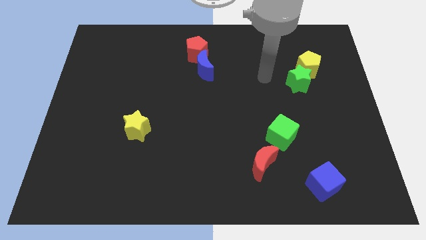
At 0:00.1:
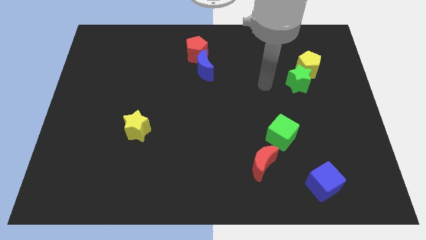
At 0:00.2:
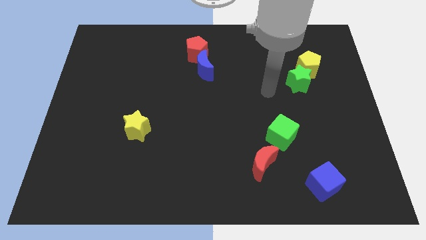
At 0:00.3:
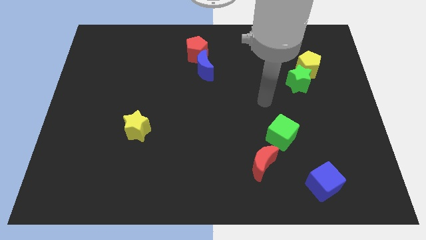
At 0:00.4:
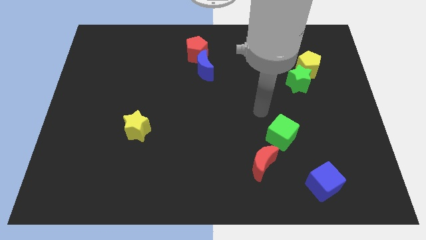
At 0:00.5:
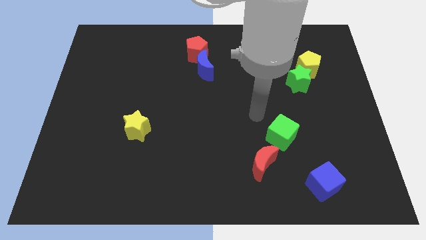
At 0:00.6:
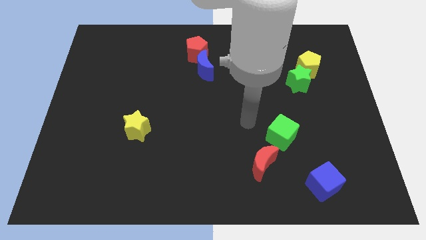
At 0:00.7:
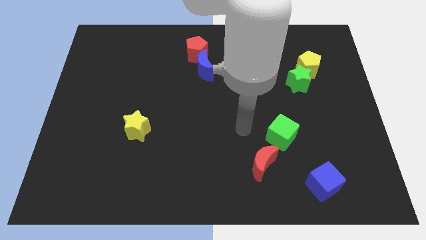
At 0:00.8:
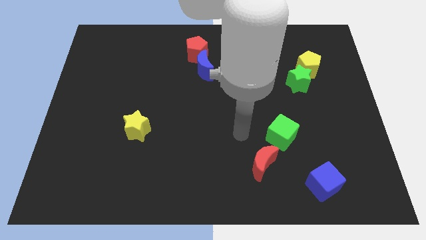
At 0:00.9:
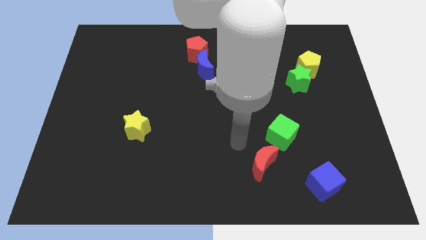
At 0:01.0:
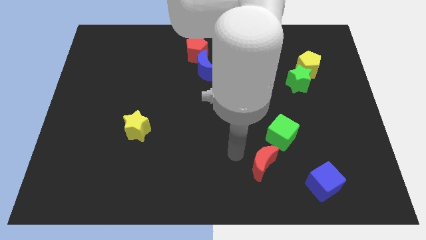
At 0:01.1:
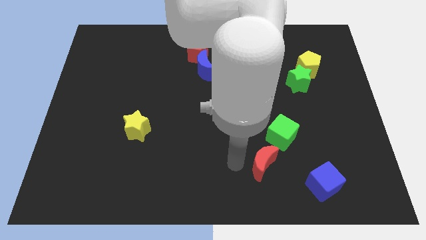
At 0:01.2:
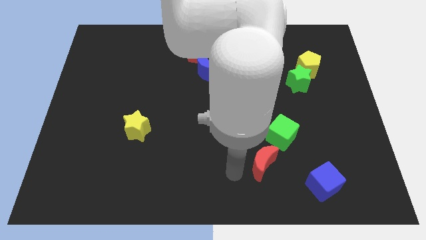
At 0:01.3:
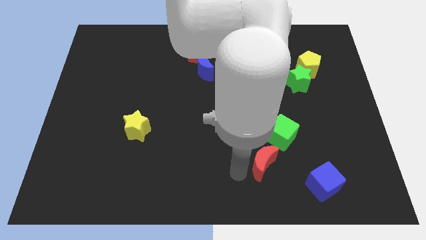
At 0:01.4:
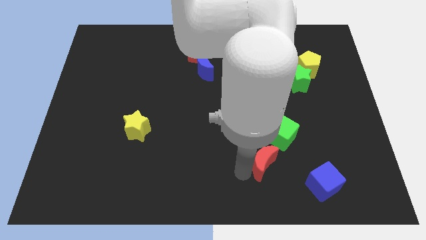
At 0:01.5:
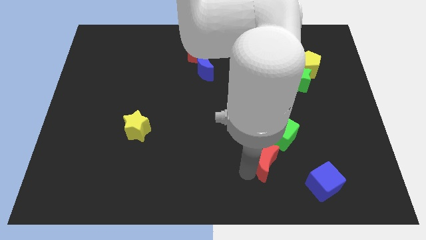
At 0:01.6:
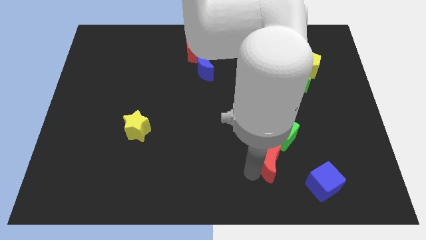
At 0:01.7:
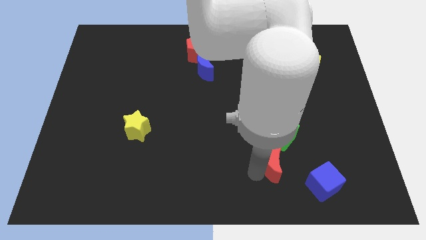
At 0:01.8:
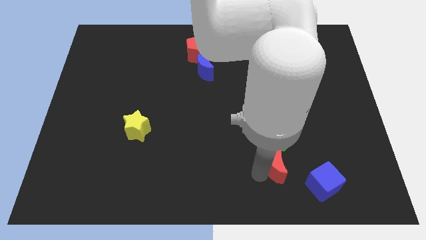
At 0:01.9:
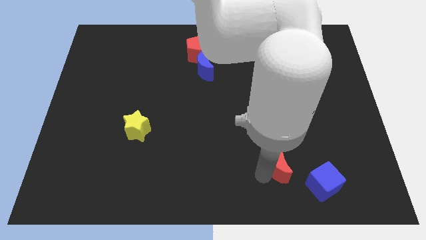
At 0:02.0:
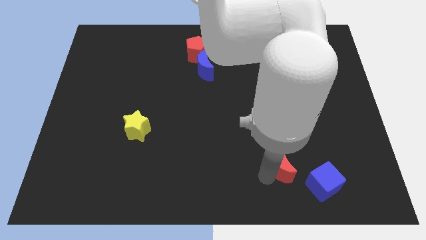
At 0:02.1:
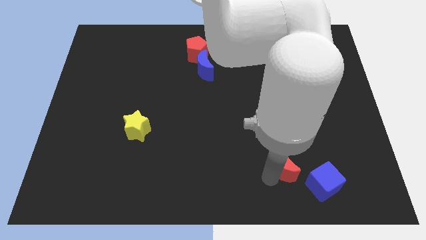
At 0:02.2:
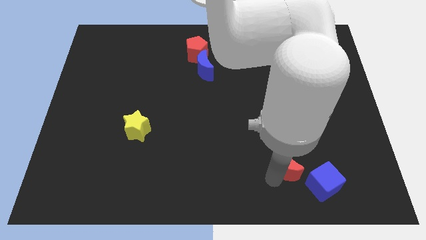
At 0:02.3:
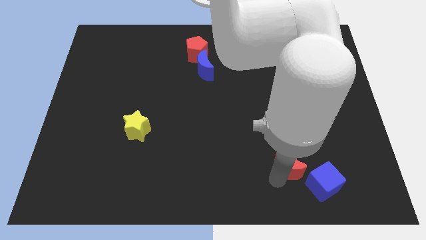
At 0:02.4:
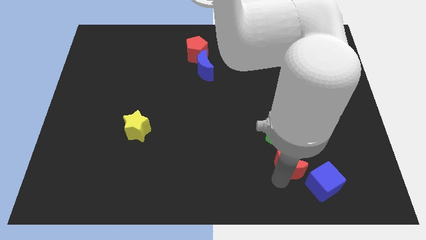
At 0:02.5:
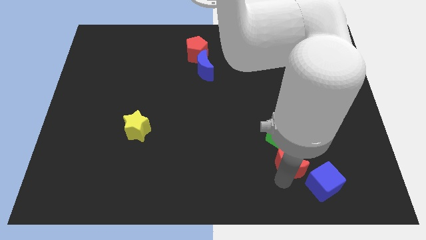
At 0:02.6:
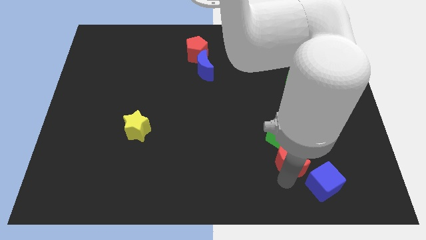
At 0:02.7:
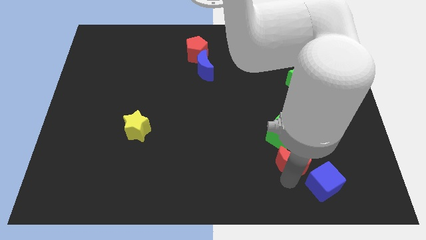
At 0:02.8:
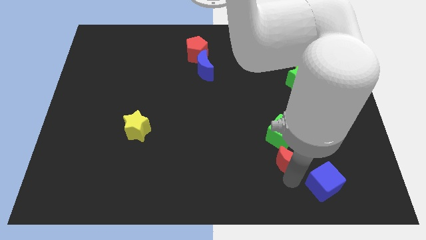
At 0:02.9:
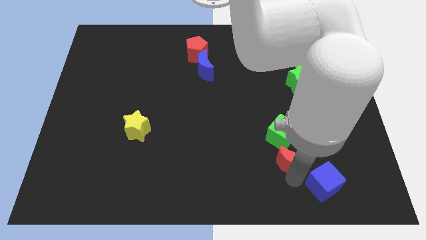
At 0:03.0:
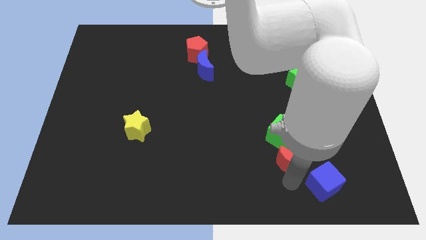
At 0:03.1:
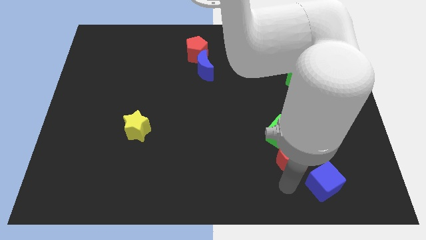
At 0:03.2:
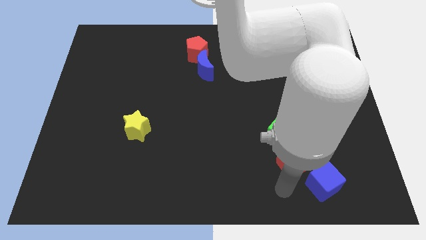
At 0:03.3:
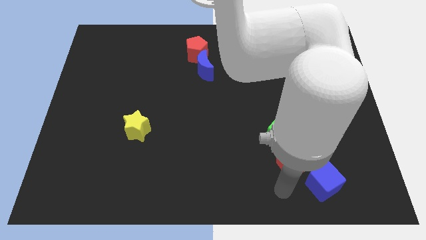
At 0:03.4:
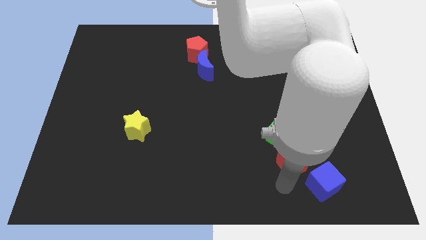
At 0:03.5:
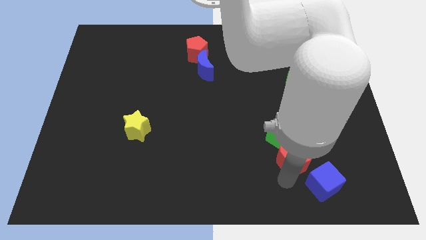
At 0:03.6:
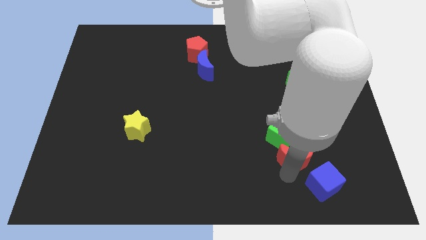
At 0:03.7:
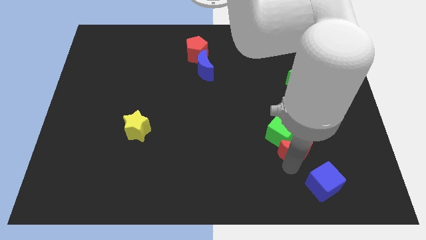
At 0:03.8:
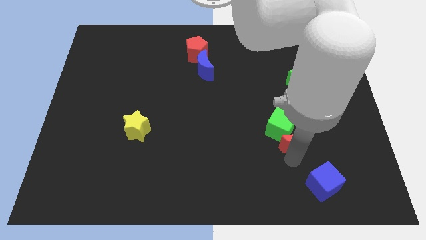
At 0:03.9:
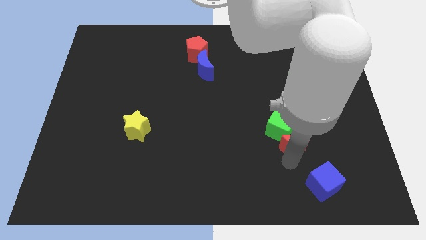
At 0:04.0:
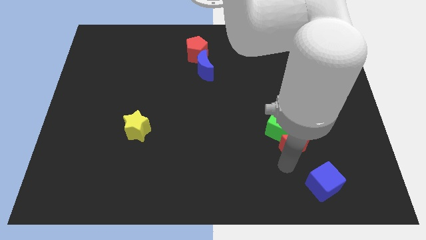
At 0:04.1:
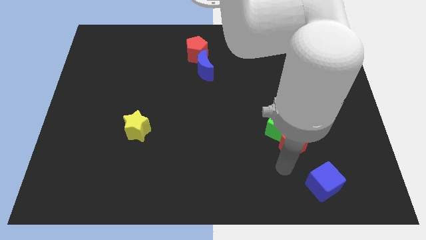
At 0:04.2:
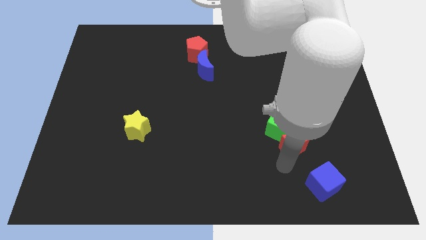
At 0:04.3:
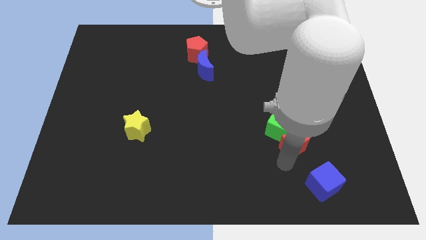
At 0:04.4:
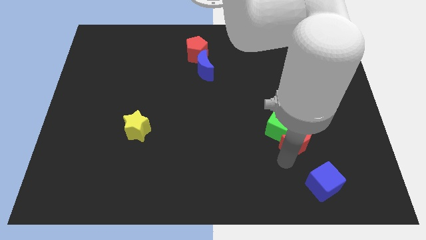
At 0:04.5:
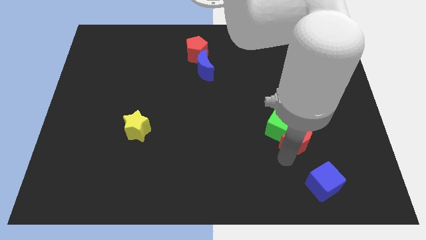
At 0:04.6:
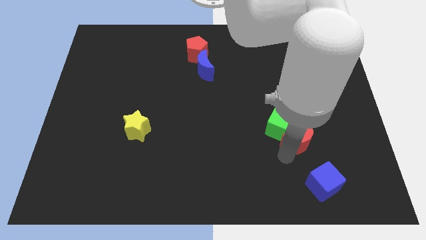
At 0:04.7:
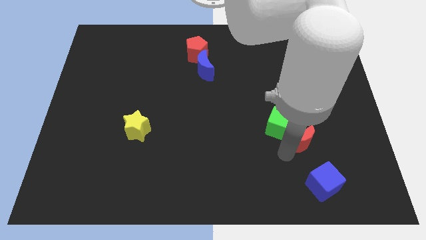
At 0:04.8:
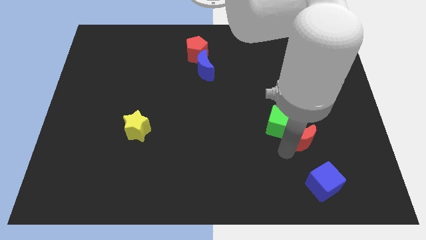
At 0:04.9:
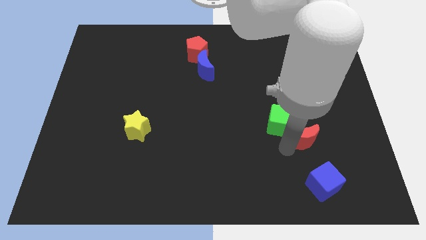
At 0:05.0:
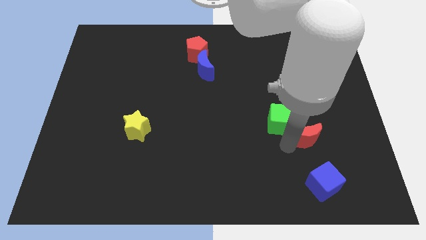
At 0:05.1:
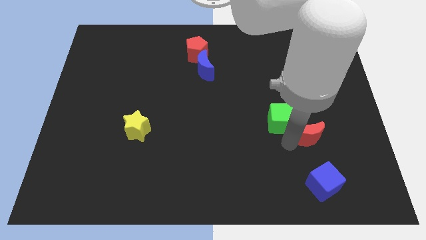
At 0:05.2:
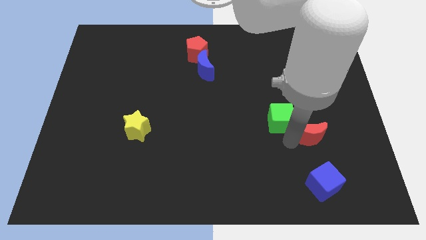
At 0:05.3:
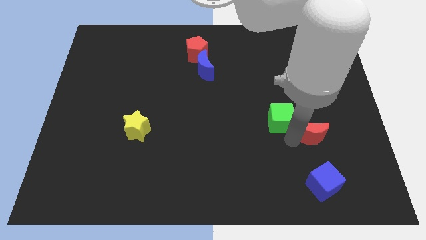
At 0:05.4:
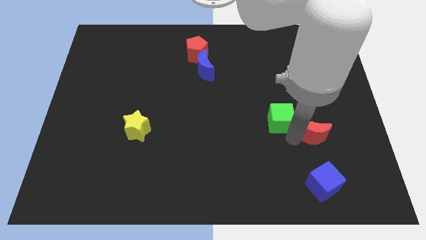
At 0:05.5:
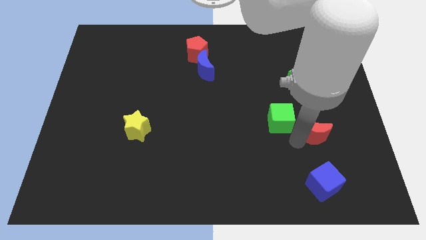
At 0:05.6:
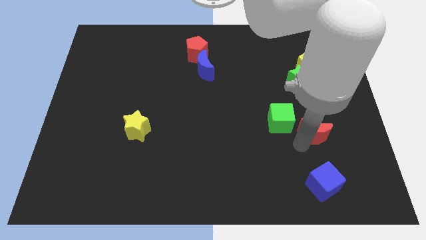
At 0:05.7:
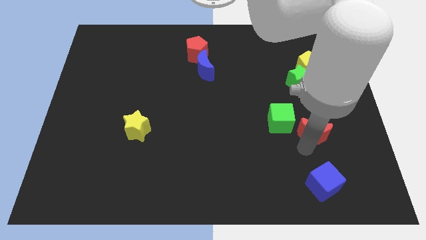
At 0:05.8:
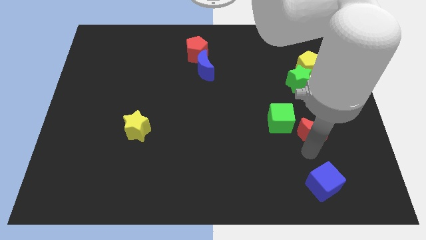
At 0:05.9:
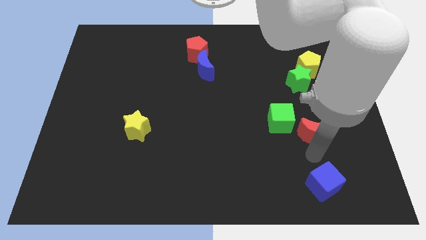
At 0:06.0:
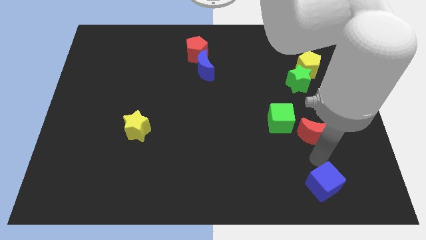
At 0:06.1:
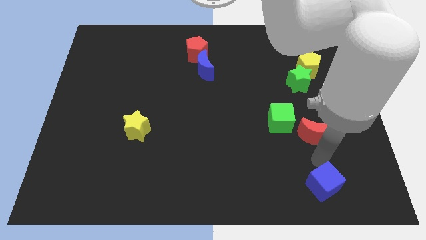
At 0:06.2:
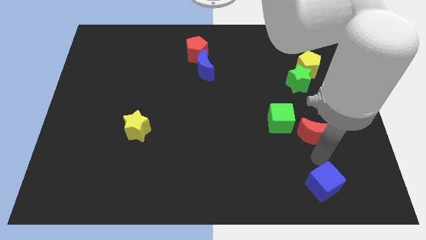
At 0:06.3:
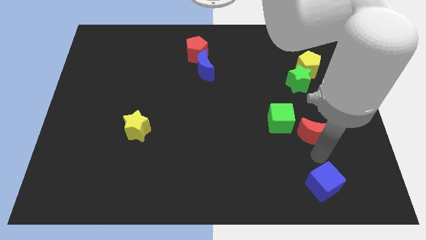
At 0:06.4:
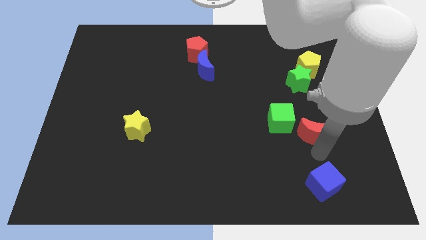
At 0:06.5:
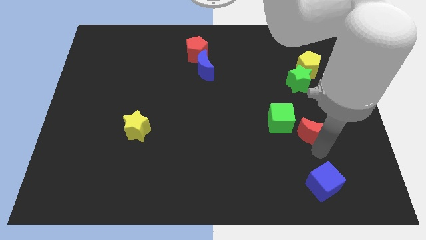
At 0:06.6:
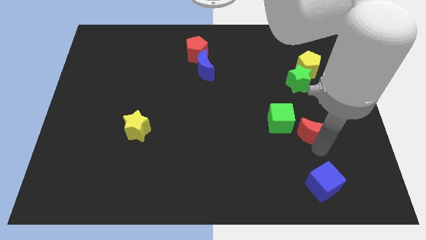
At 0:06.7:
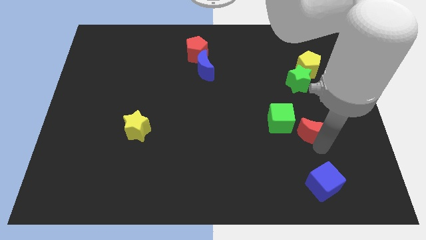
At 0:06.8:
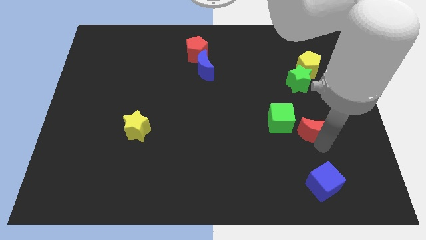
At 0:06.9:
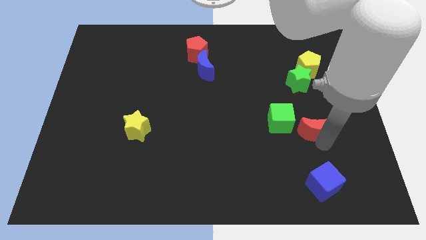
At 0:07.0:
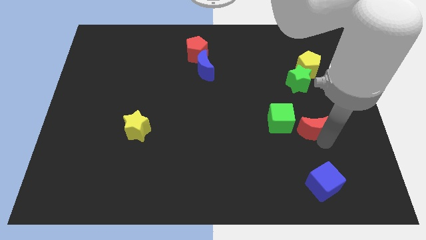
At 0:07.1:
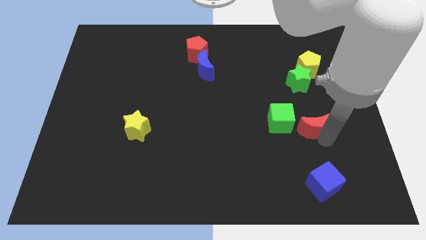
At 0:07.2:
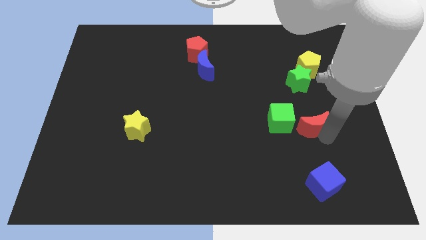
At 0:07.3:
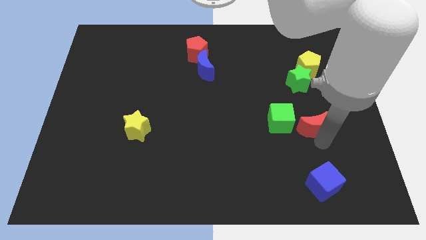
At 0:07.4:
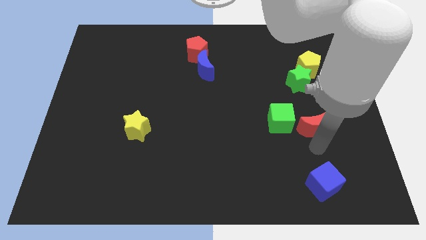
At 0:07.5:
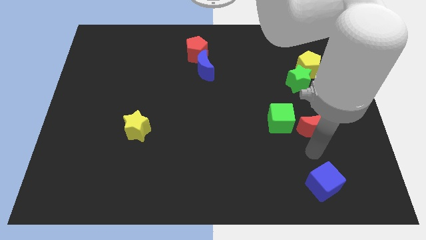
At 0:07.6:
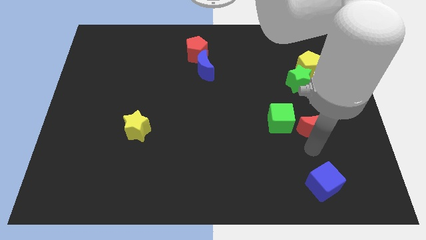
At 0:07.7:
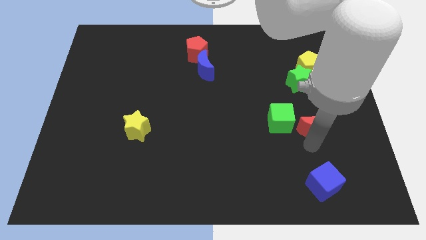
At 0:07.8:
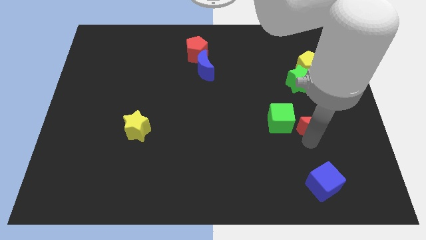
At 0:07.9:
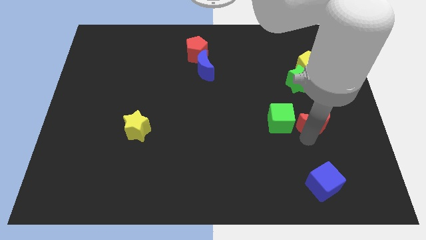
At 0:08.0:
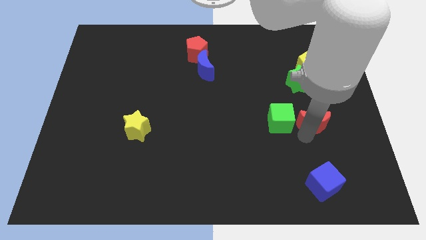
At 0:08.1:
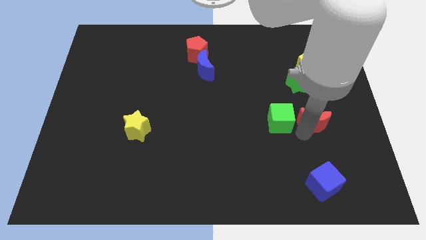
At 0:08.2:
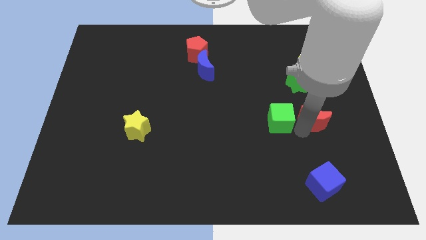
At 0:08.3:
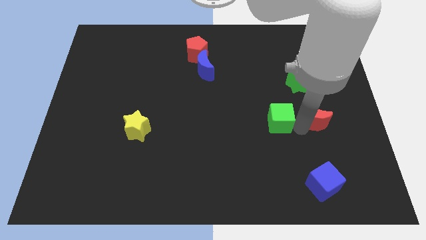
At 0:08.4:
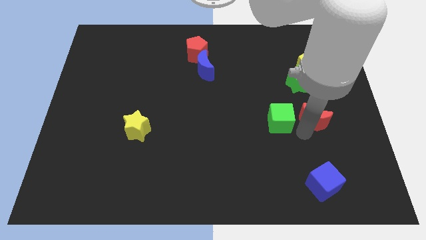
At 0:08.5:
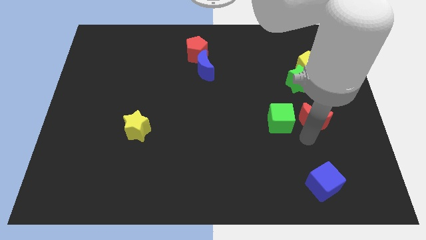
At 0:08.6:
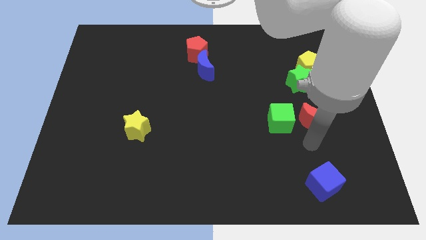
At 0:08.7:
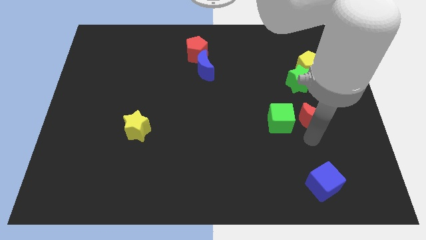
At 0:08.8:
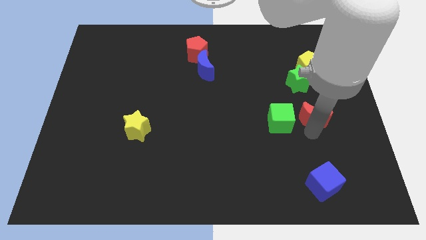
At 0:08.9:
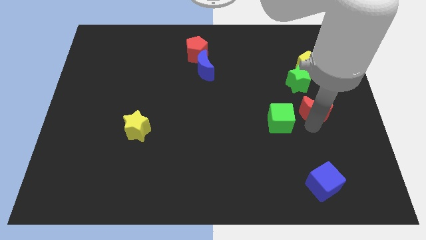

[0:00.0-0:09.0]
push the red moon to the bottom side of the yellow pentagon
